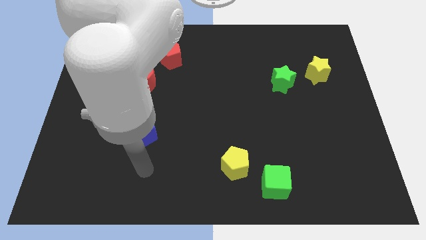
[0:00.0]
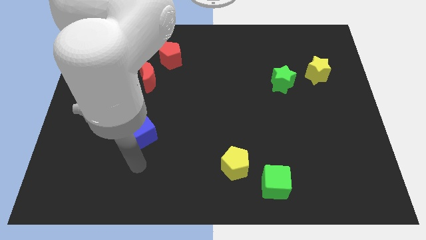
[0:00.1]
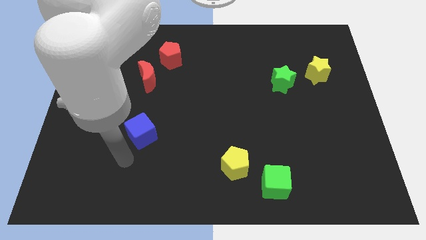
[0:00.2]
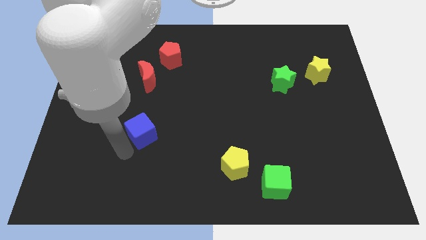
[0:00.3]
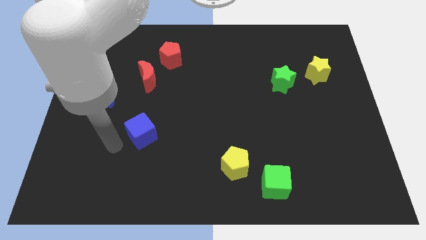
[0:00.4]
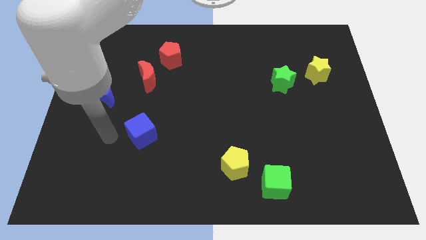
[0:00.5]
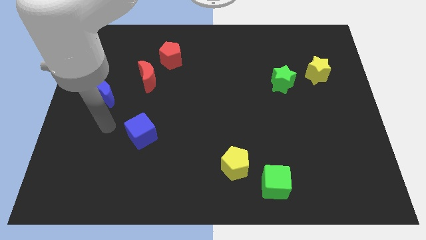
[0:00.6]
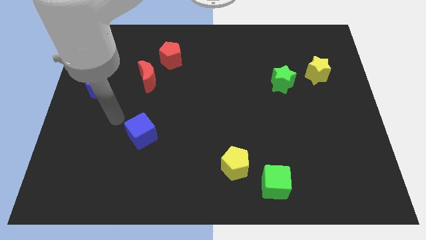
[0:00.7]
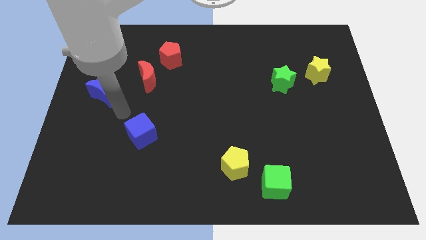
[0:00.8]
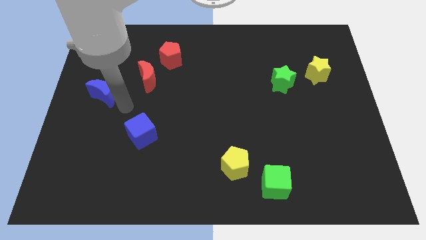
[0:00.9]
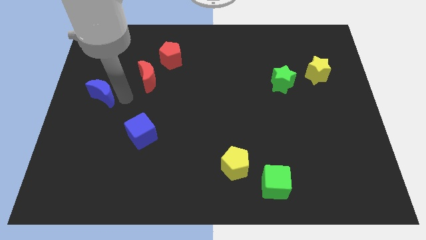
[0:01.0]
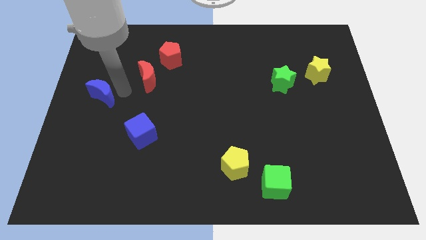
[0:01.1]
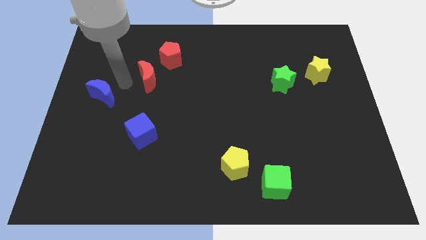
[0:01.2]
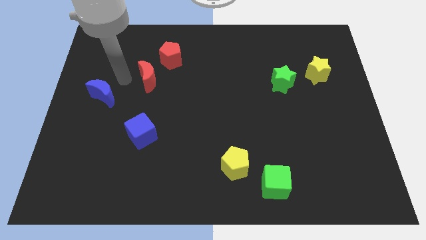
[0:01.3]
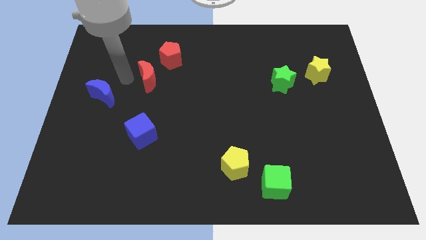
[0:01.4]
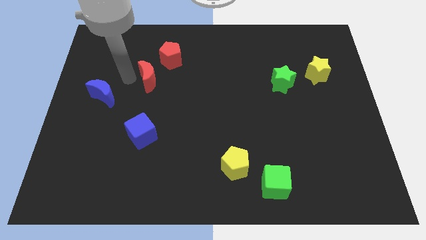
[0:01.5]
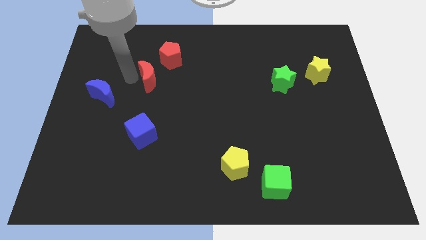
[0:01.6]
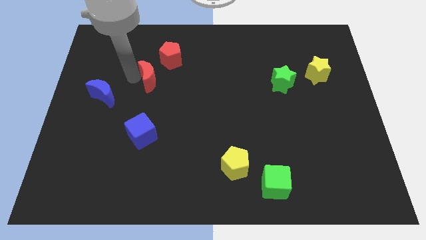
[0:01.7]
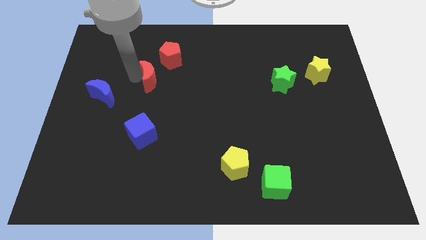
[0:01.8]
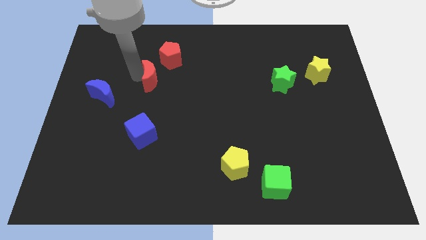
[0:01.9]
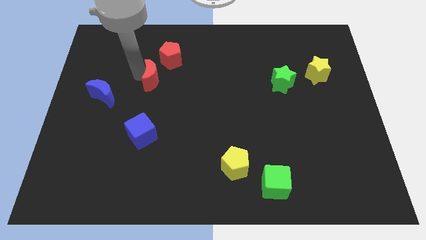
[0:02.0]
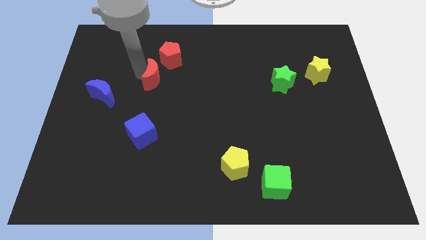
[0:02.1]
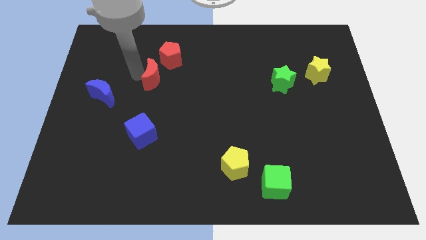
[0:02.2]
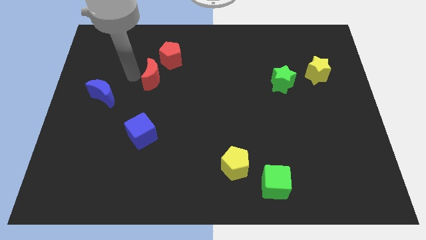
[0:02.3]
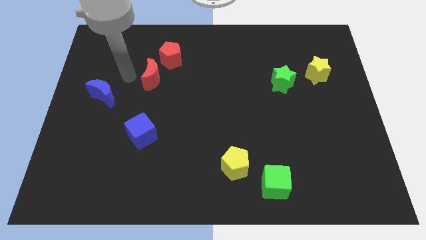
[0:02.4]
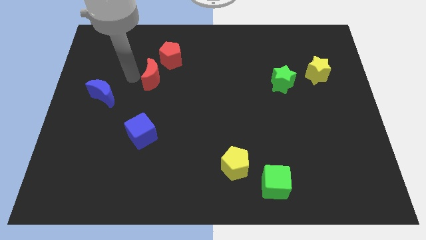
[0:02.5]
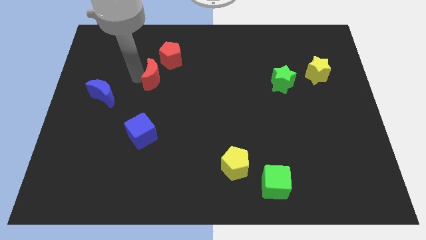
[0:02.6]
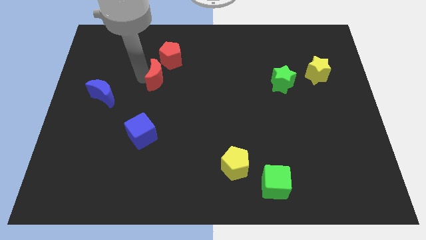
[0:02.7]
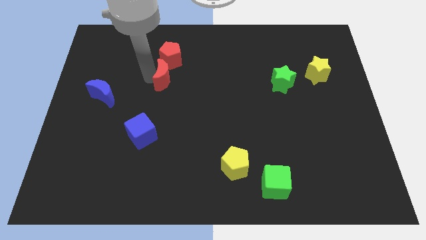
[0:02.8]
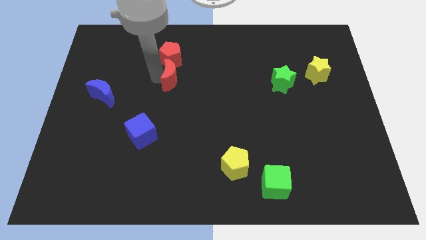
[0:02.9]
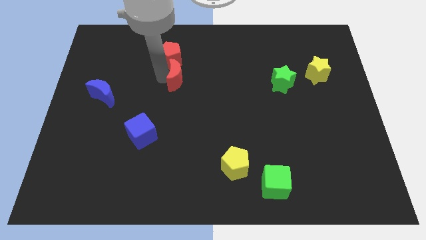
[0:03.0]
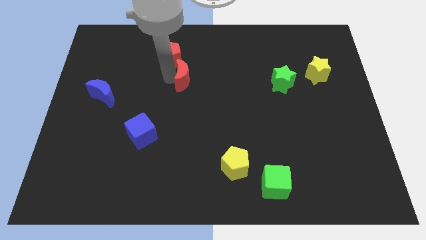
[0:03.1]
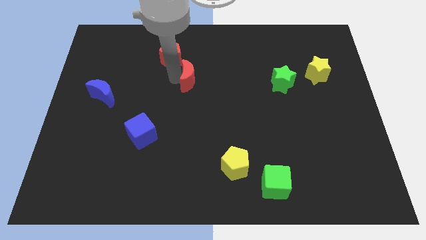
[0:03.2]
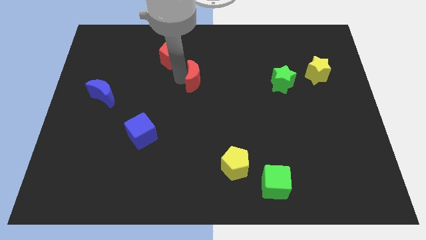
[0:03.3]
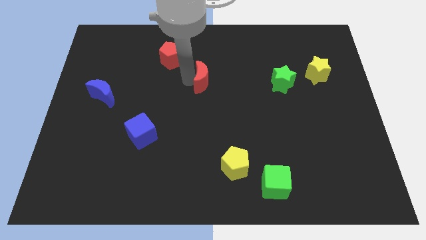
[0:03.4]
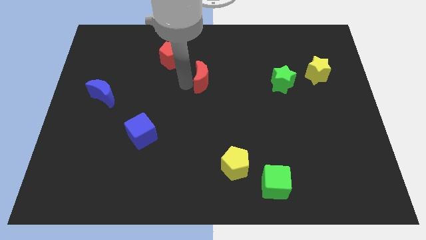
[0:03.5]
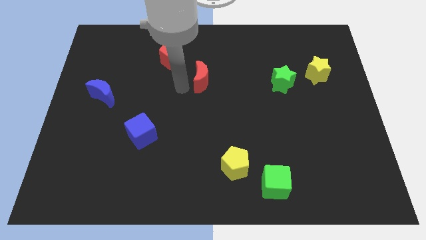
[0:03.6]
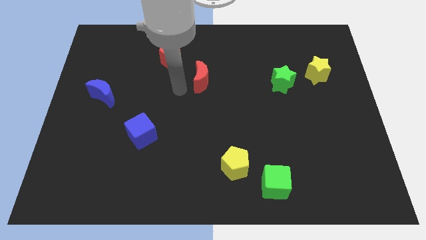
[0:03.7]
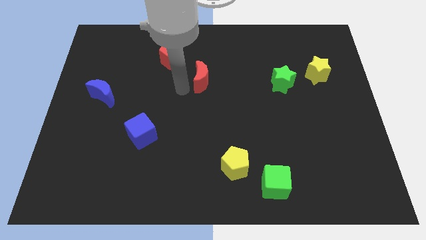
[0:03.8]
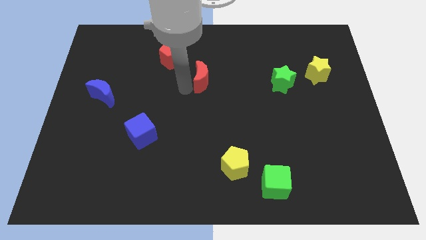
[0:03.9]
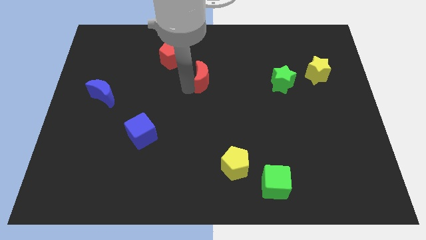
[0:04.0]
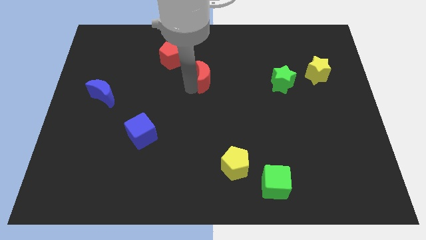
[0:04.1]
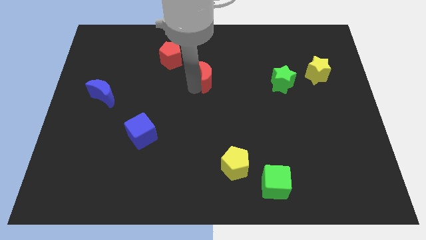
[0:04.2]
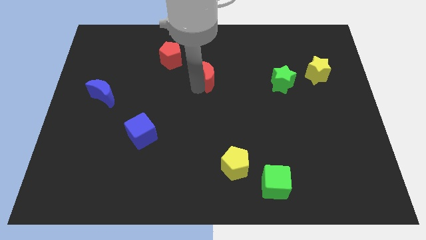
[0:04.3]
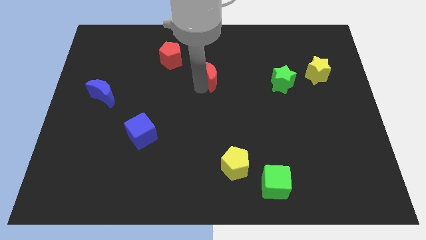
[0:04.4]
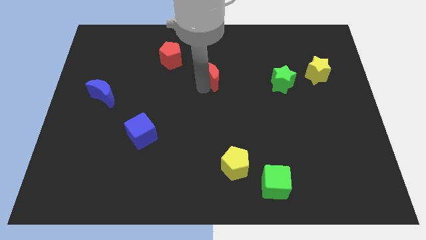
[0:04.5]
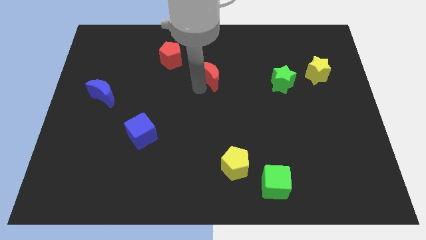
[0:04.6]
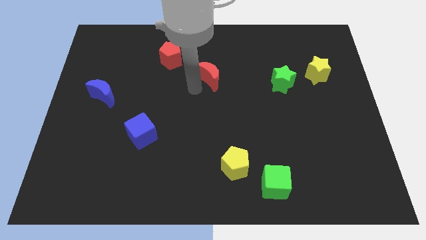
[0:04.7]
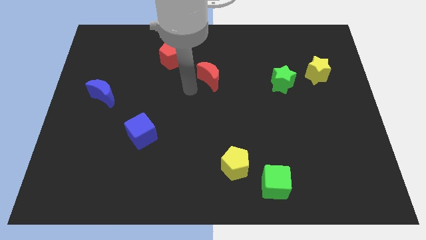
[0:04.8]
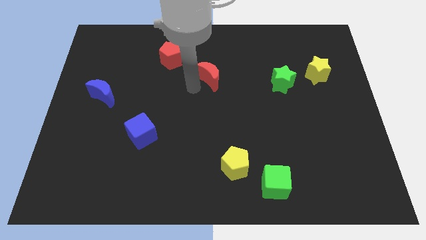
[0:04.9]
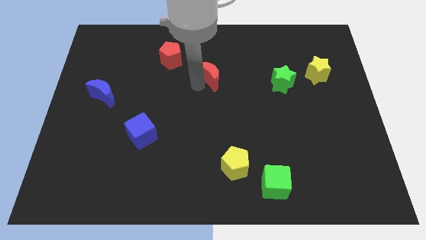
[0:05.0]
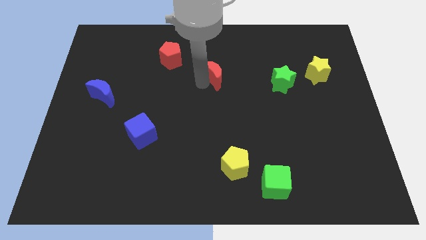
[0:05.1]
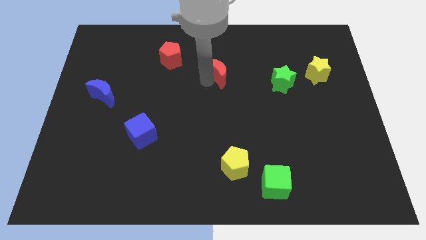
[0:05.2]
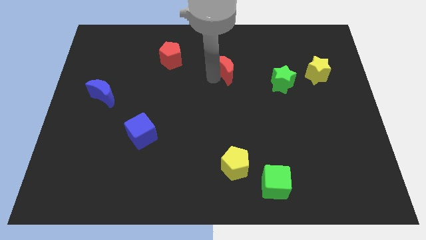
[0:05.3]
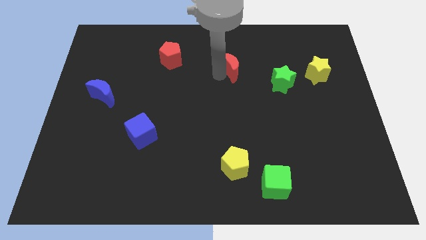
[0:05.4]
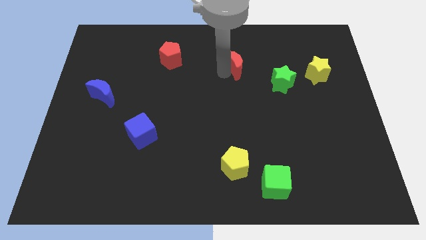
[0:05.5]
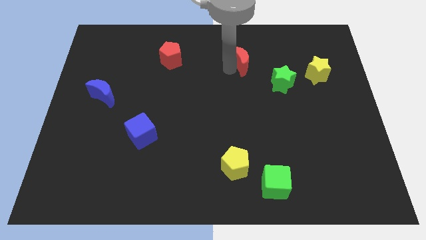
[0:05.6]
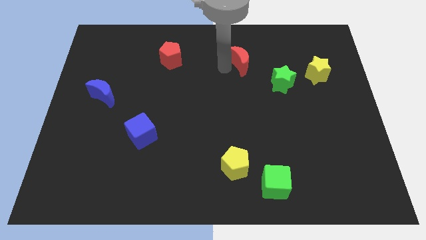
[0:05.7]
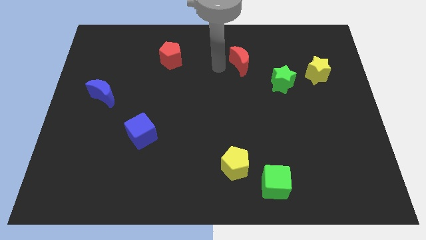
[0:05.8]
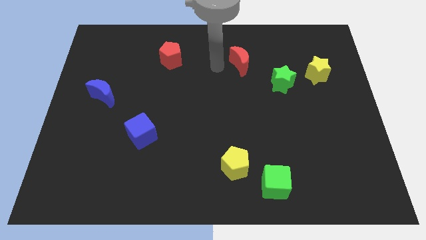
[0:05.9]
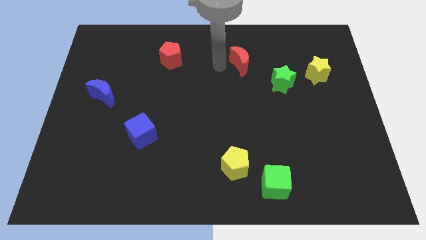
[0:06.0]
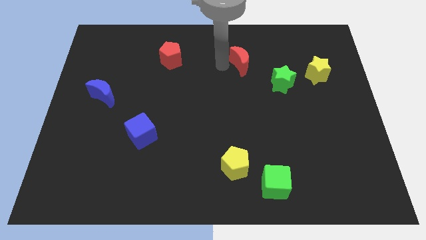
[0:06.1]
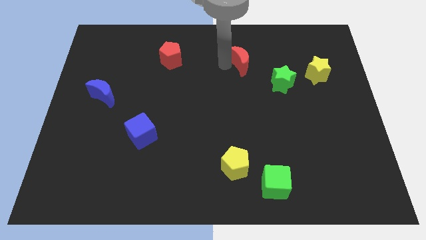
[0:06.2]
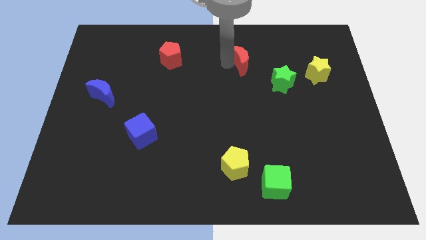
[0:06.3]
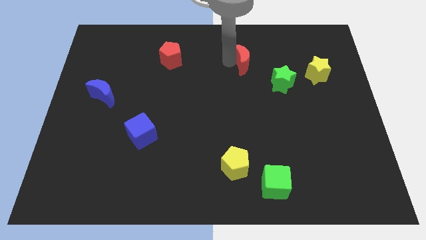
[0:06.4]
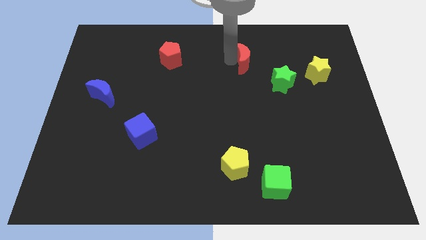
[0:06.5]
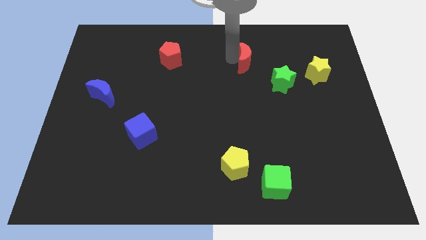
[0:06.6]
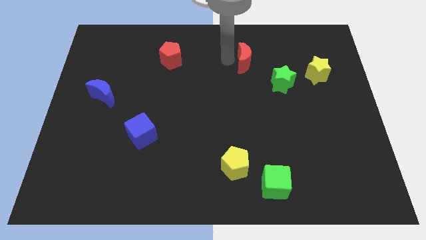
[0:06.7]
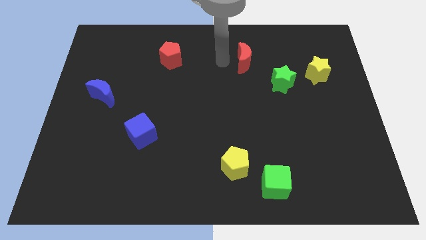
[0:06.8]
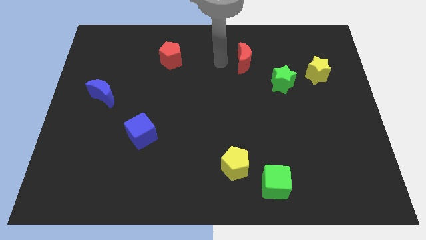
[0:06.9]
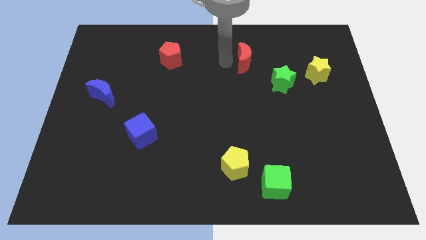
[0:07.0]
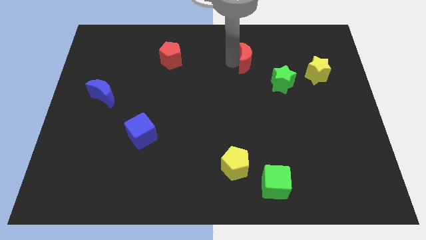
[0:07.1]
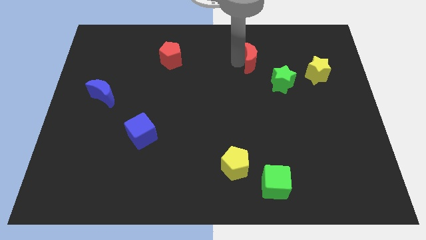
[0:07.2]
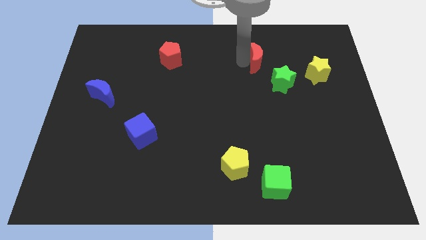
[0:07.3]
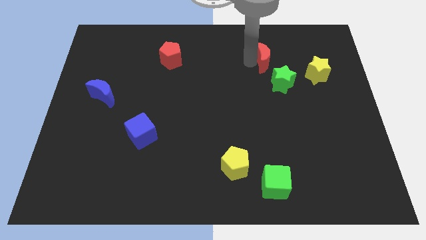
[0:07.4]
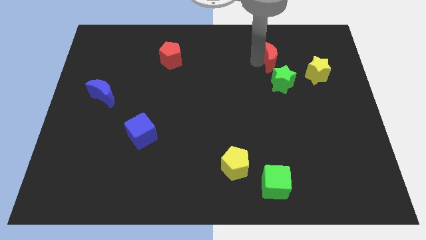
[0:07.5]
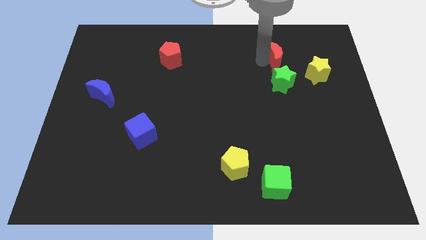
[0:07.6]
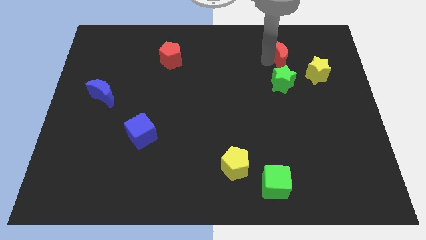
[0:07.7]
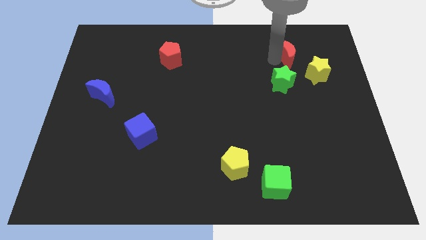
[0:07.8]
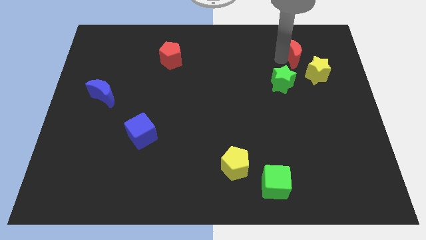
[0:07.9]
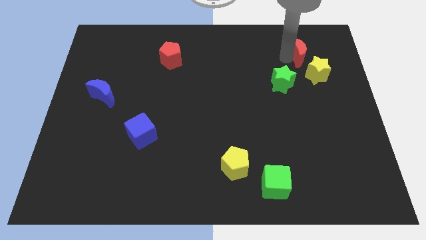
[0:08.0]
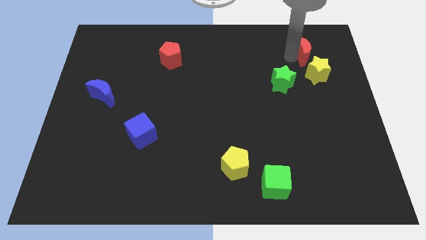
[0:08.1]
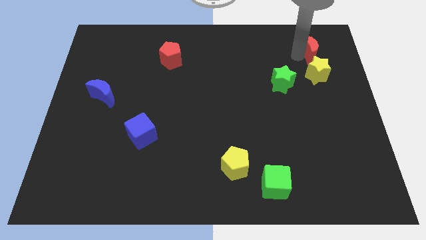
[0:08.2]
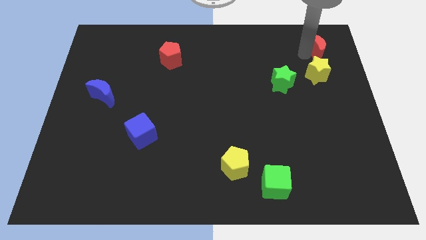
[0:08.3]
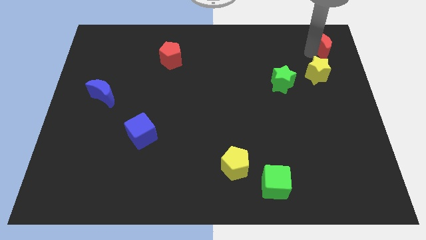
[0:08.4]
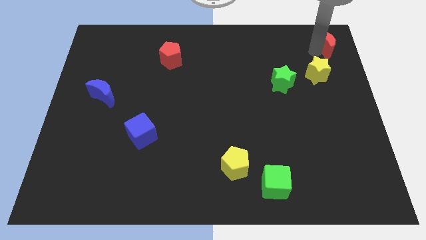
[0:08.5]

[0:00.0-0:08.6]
put the red moon to the top right of the board
